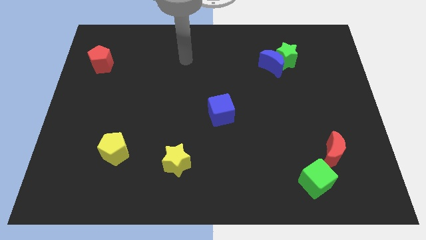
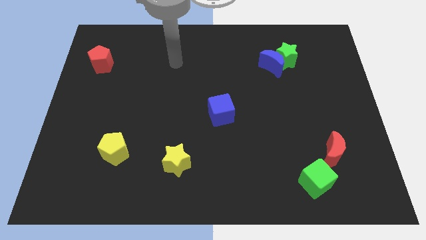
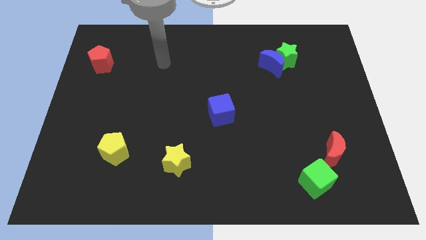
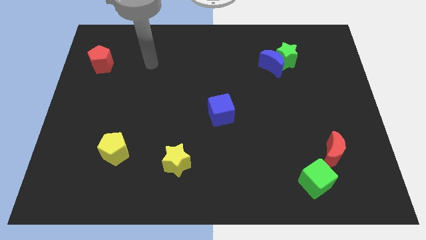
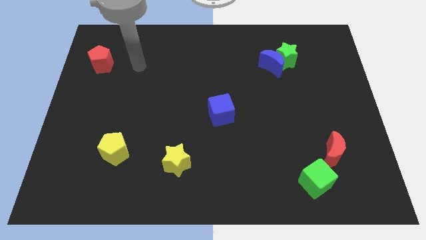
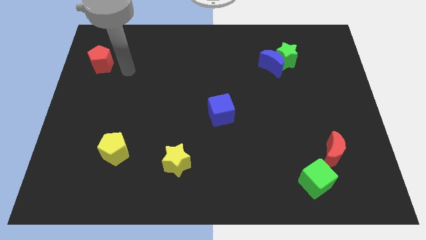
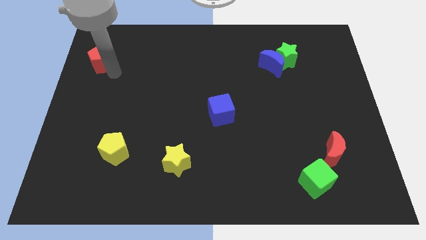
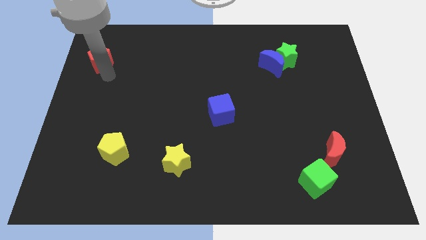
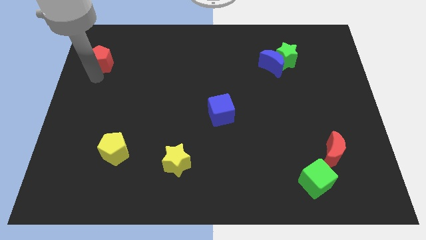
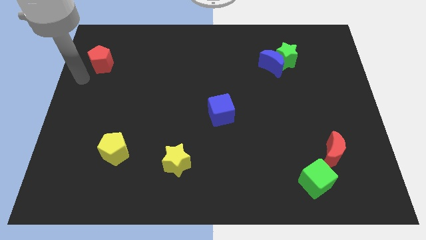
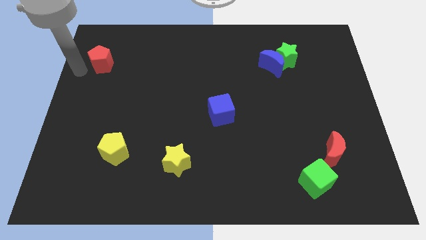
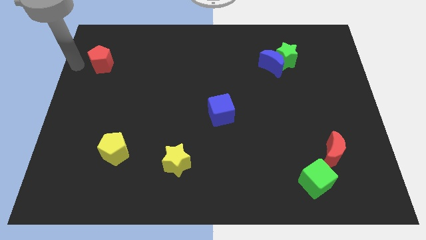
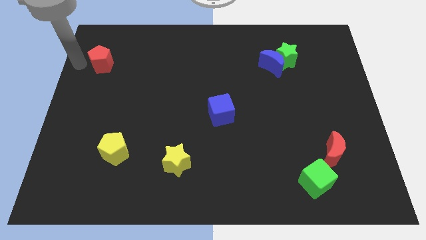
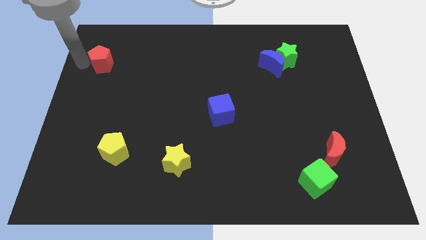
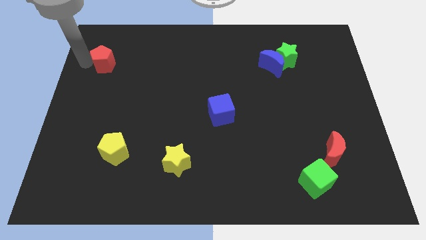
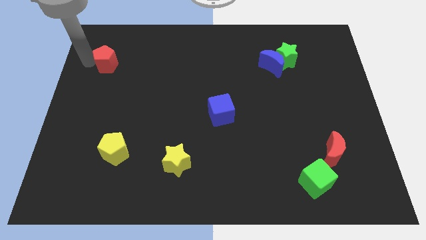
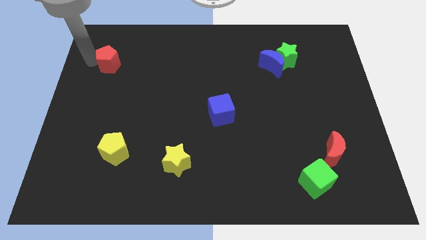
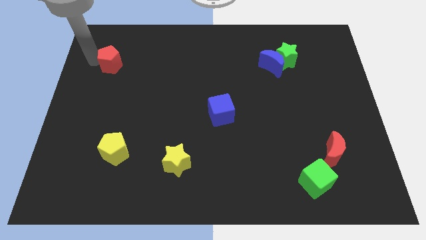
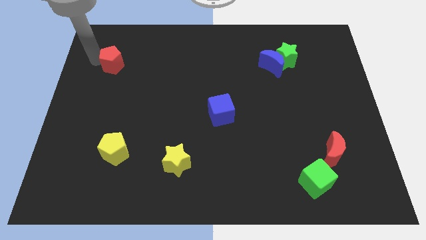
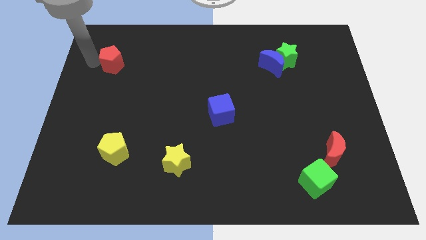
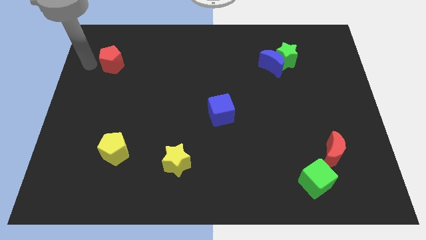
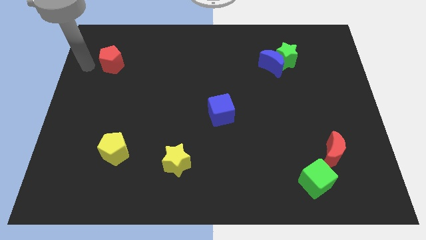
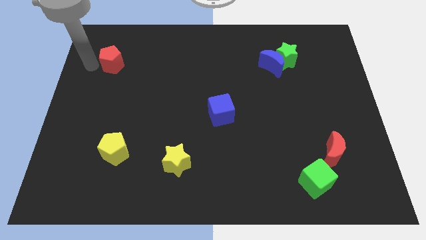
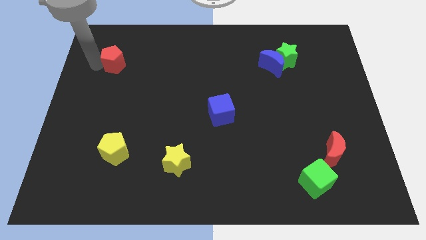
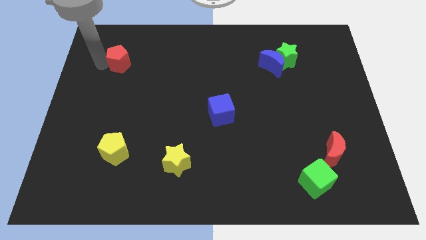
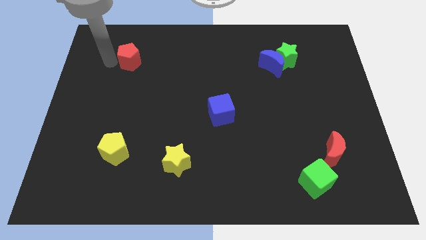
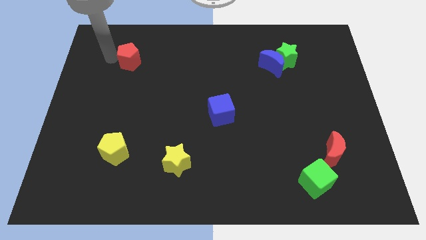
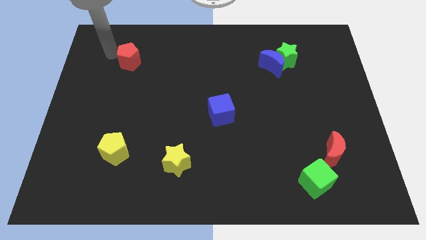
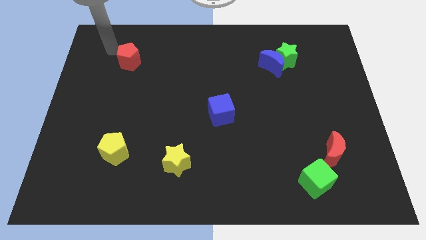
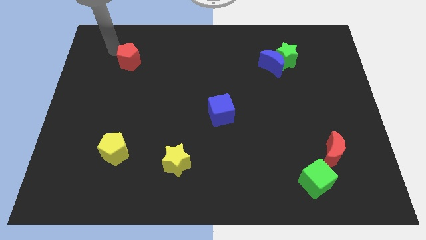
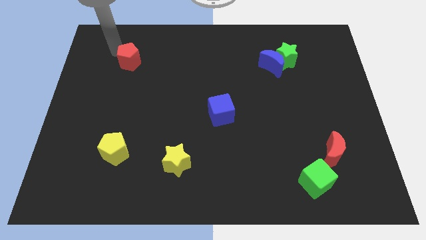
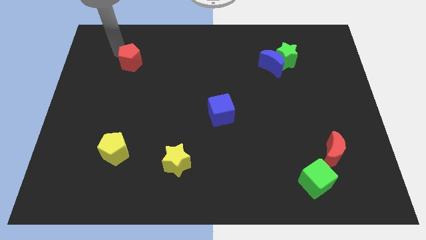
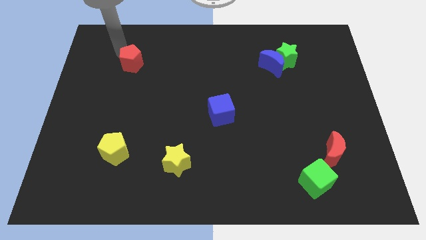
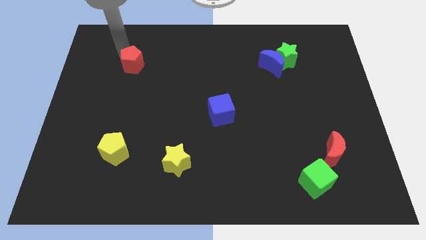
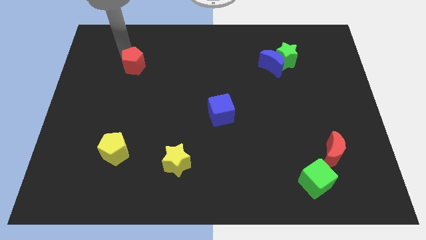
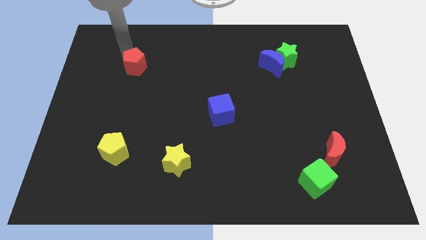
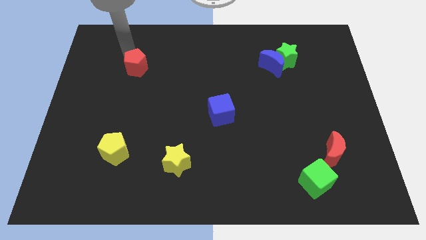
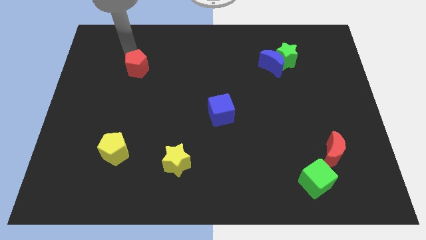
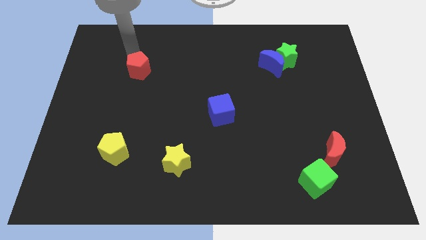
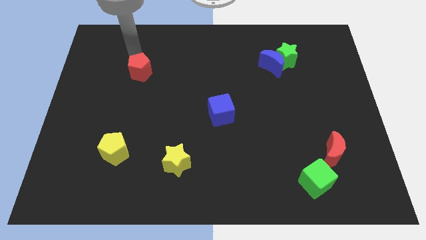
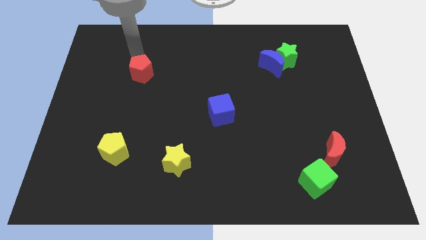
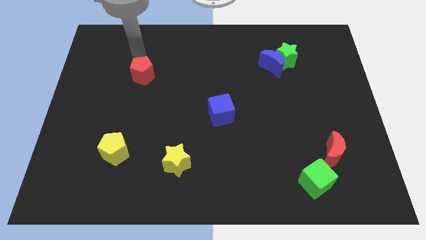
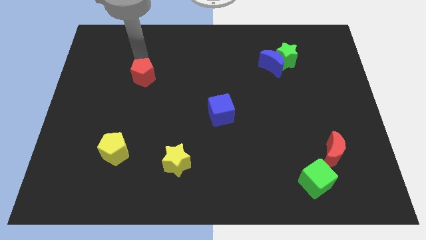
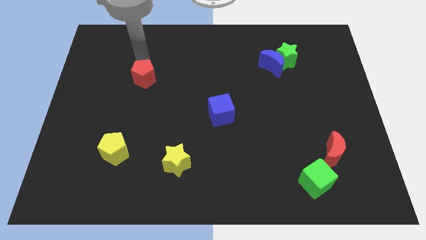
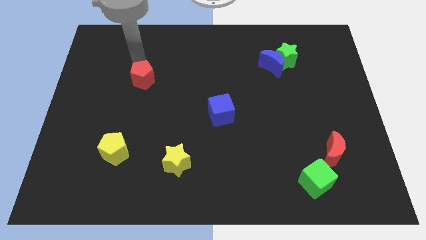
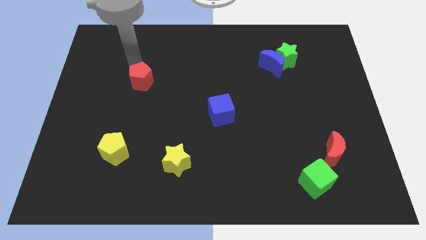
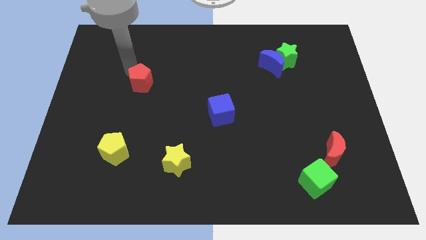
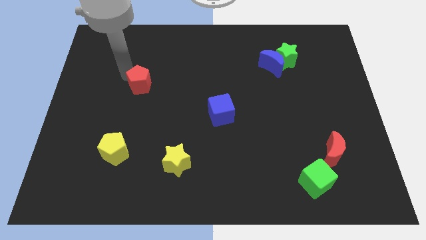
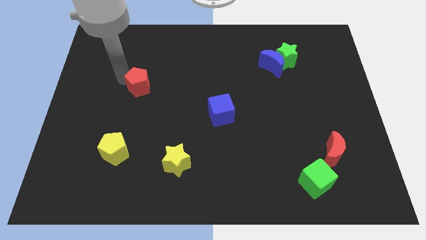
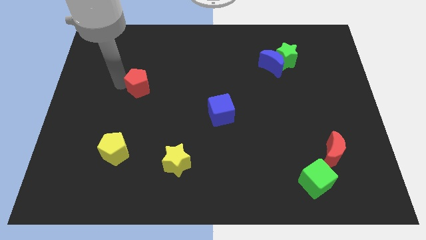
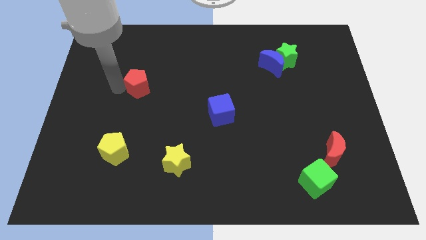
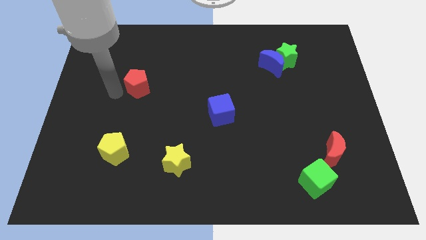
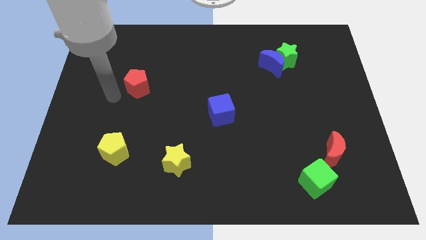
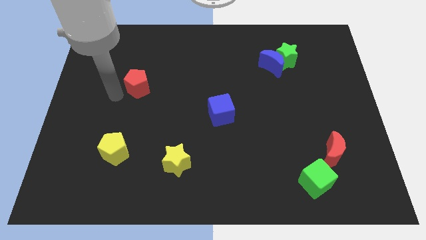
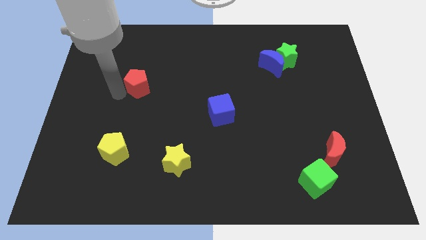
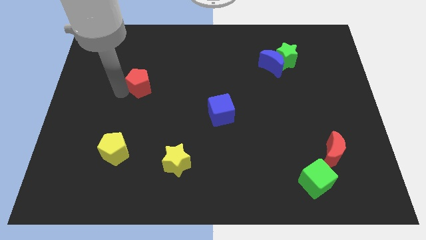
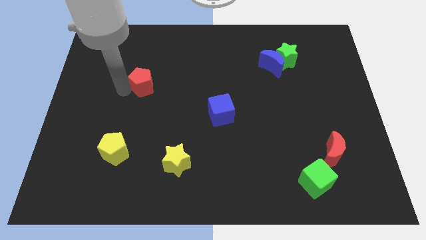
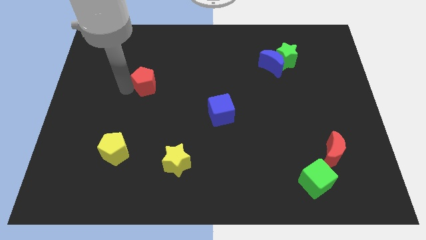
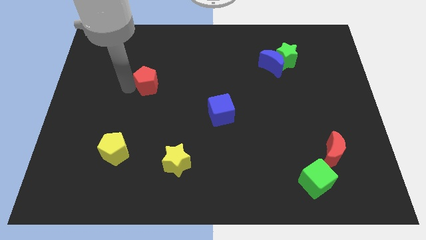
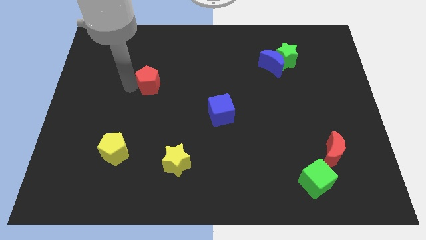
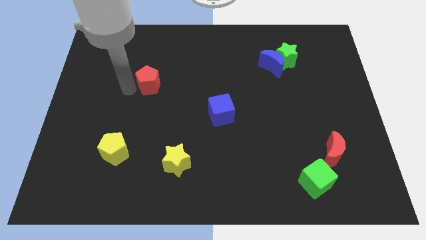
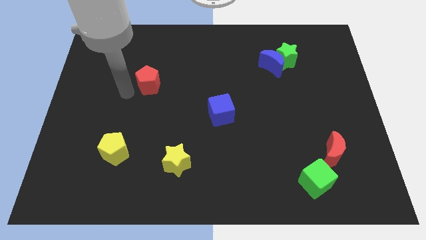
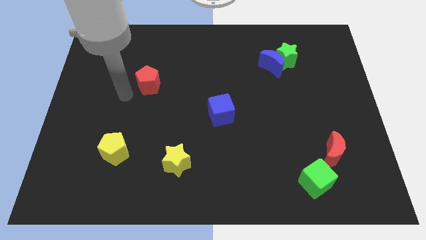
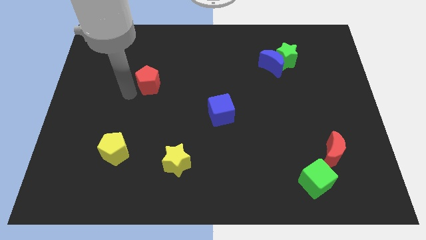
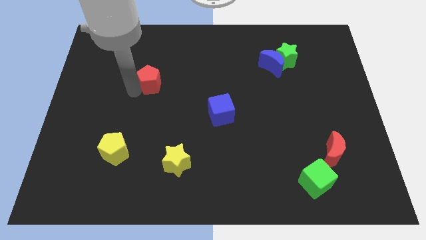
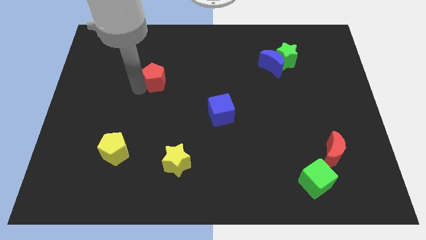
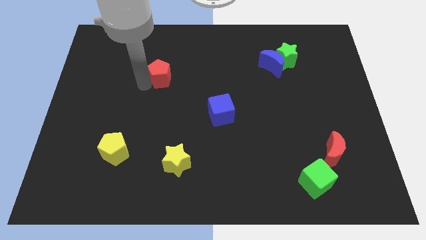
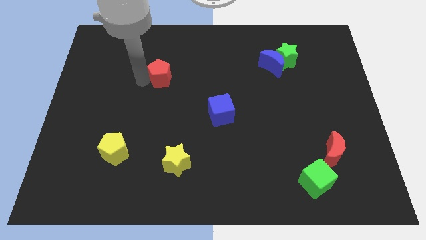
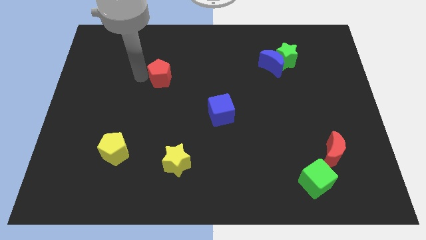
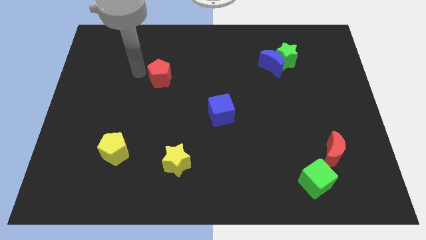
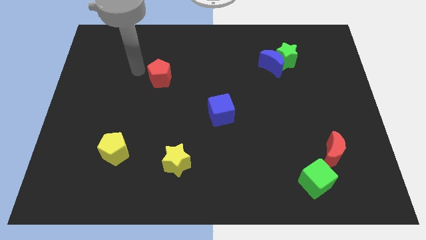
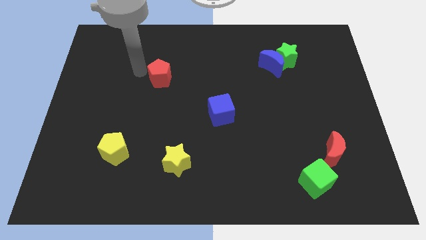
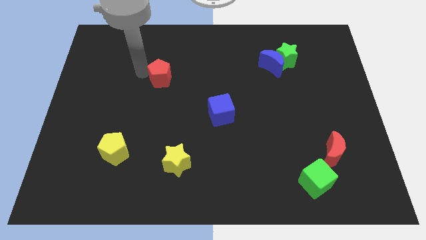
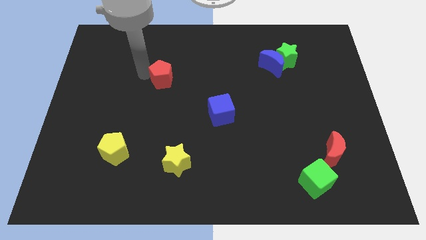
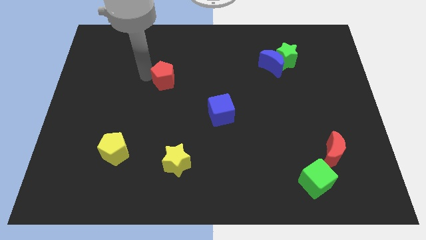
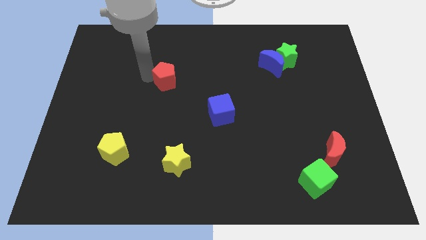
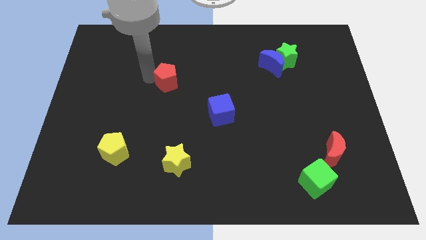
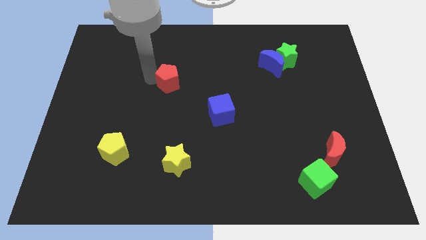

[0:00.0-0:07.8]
slide the red pentagon to the center
